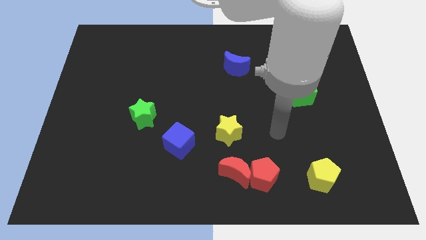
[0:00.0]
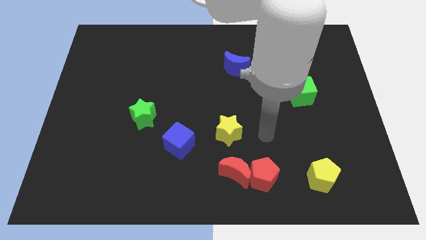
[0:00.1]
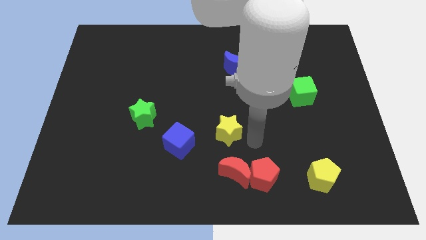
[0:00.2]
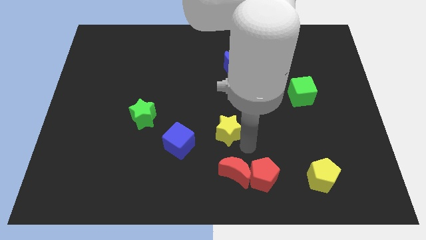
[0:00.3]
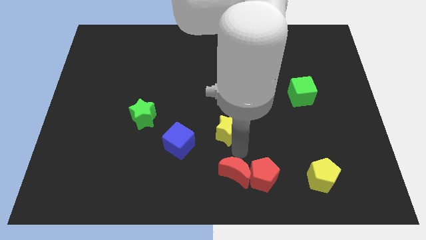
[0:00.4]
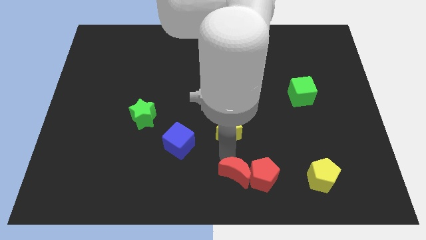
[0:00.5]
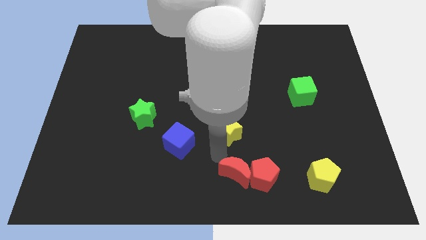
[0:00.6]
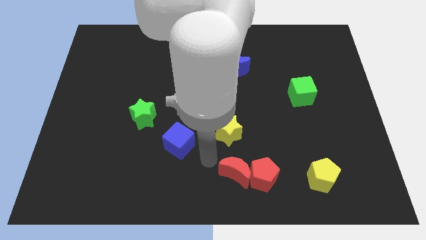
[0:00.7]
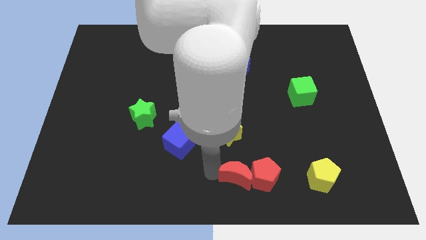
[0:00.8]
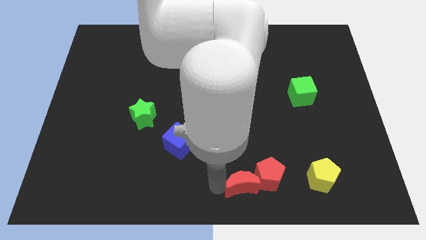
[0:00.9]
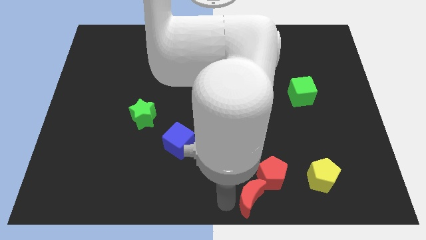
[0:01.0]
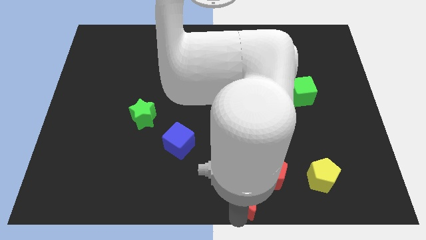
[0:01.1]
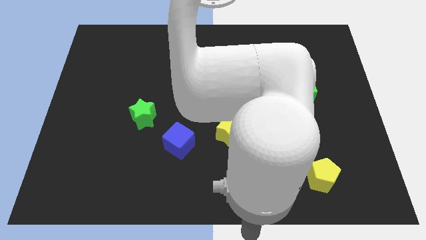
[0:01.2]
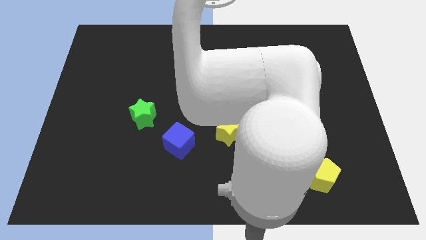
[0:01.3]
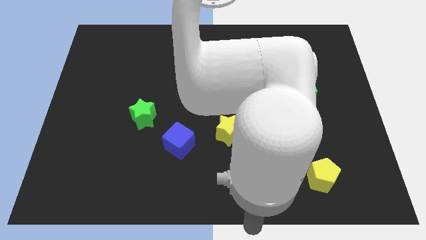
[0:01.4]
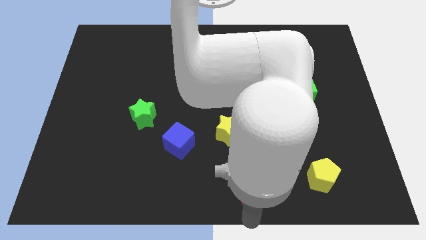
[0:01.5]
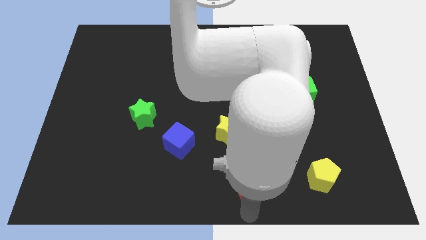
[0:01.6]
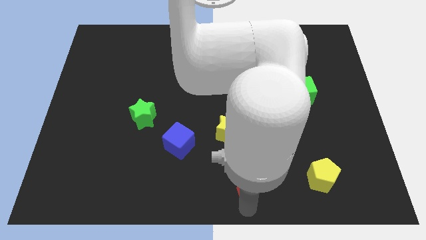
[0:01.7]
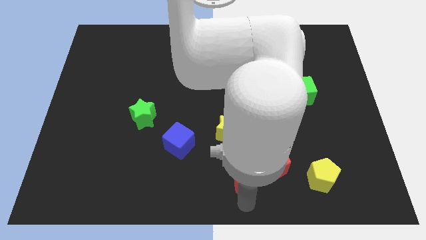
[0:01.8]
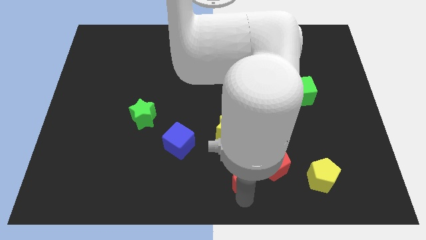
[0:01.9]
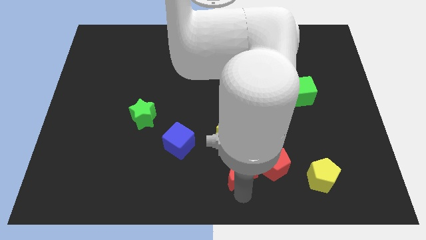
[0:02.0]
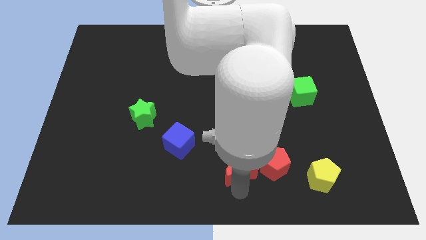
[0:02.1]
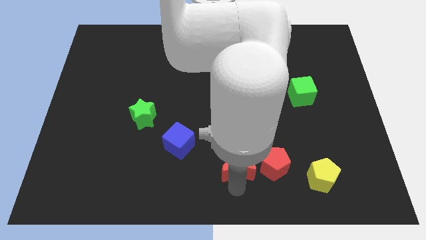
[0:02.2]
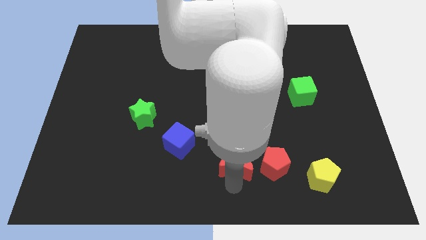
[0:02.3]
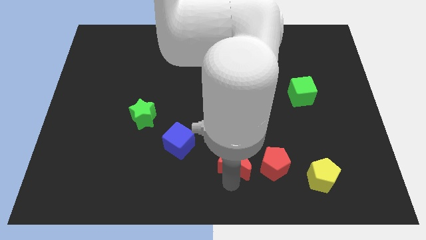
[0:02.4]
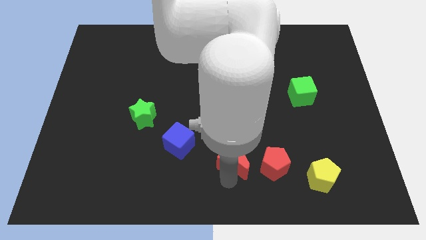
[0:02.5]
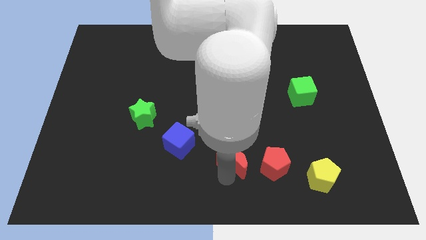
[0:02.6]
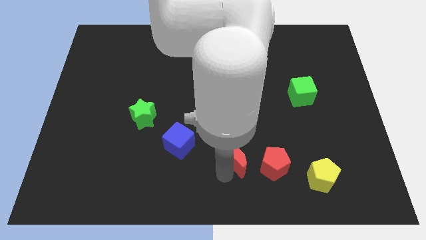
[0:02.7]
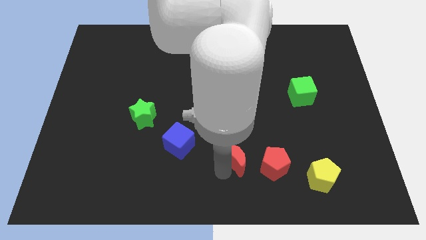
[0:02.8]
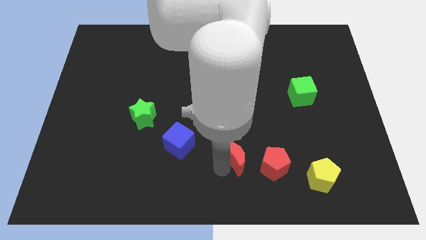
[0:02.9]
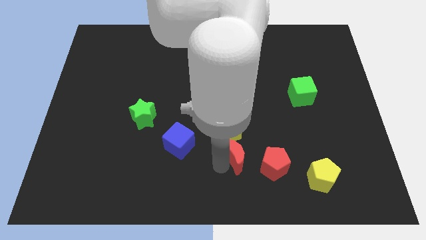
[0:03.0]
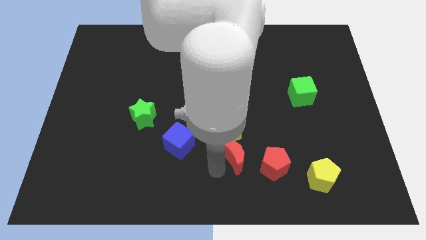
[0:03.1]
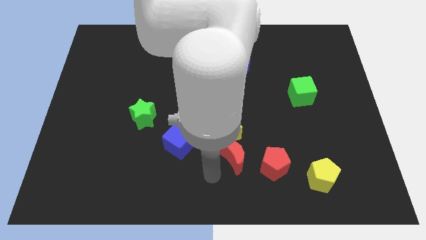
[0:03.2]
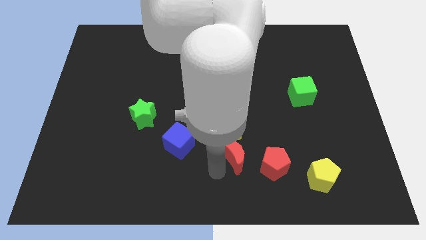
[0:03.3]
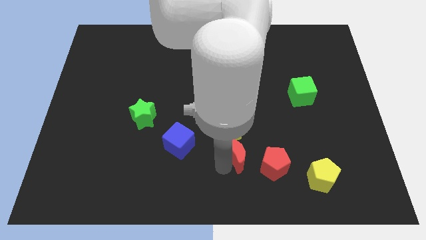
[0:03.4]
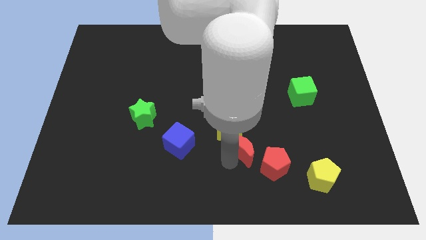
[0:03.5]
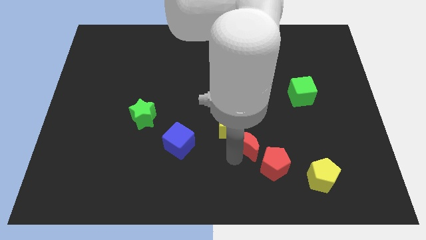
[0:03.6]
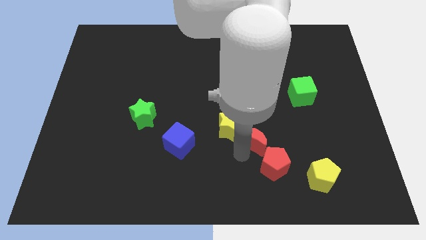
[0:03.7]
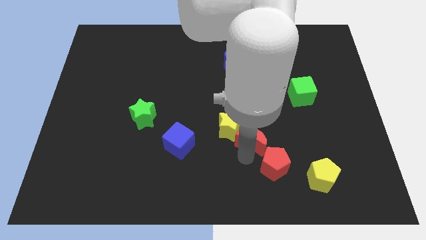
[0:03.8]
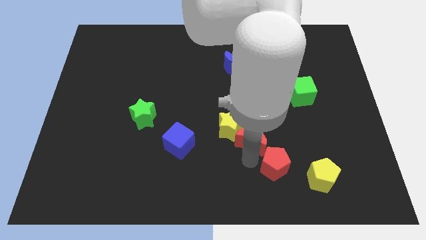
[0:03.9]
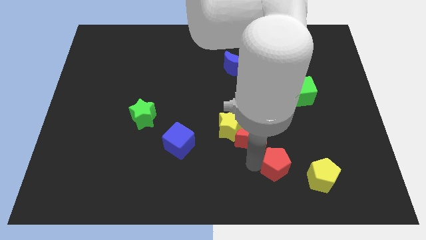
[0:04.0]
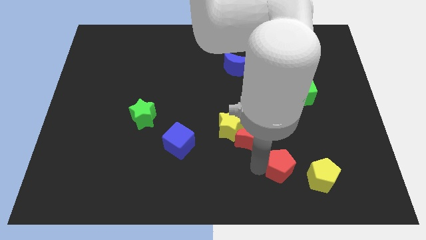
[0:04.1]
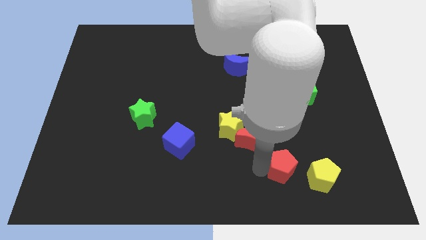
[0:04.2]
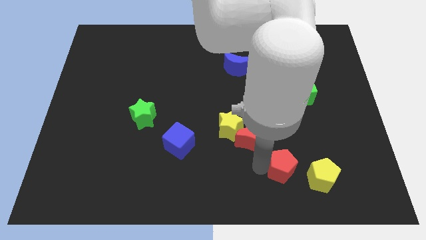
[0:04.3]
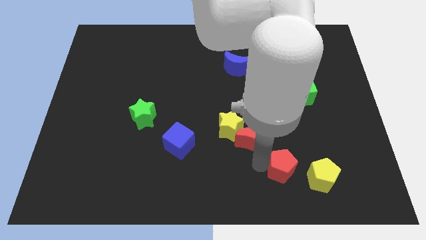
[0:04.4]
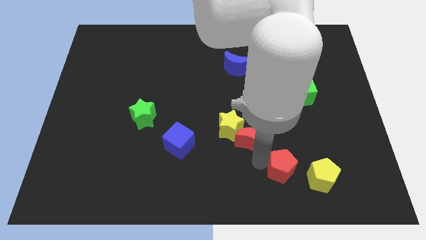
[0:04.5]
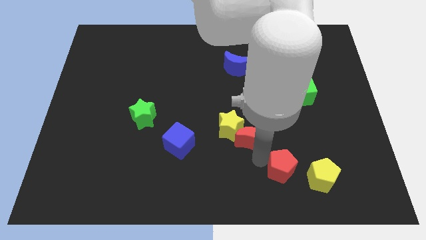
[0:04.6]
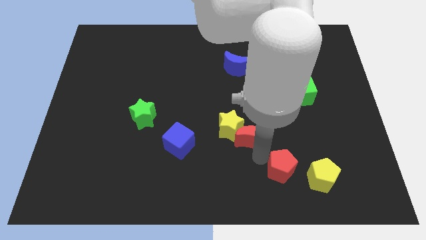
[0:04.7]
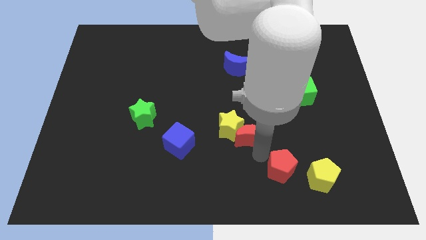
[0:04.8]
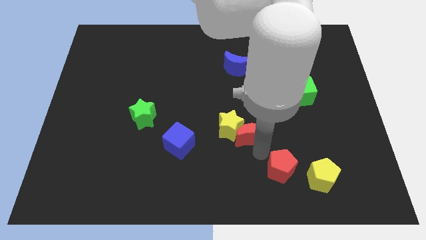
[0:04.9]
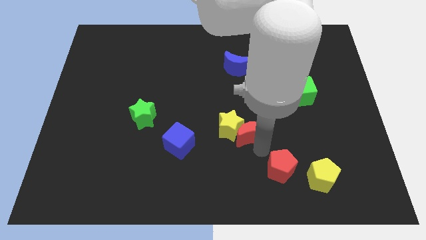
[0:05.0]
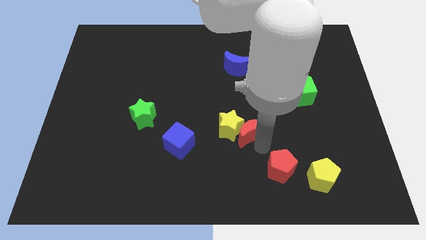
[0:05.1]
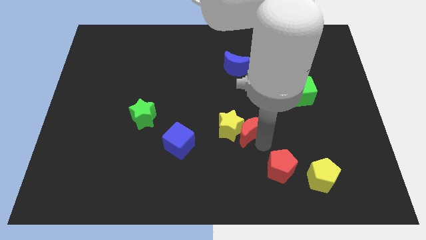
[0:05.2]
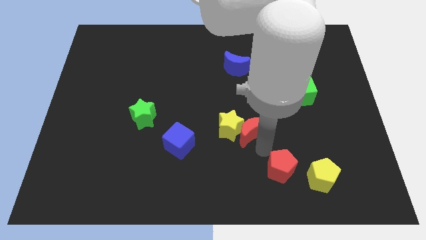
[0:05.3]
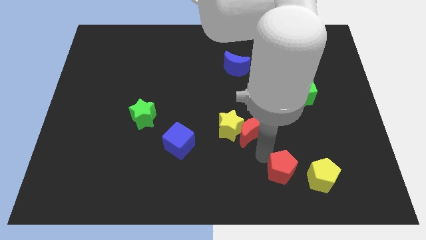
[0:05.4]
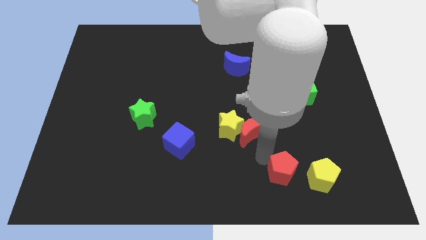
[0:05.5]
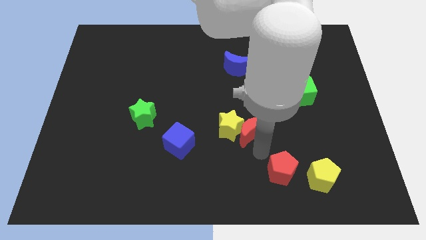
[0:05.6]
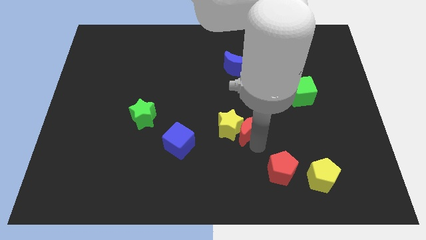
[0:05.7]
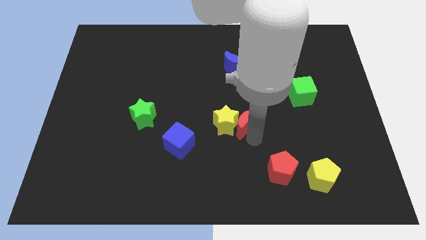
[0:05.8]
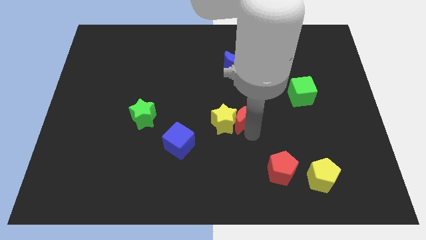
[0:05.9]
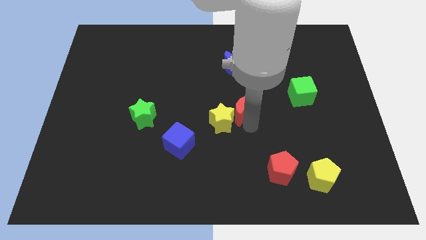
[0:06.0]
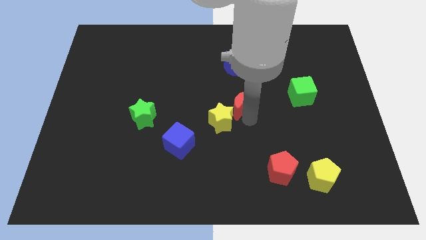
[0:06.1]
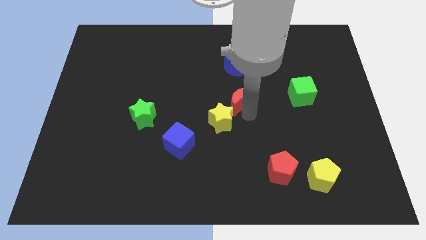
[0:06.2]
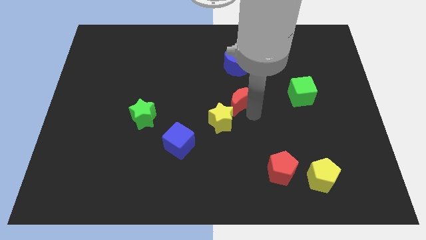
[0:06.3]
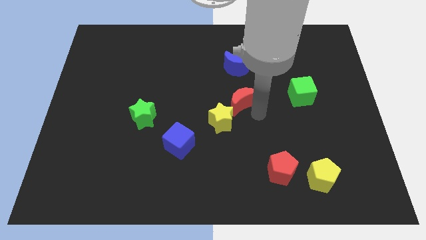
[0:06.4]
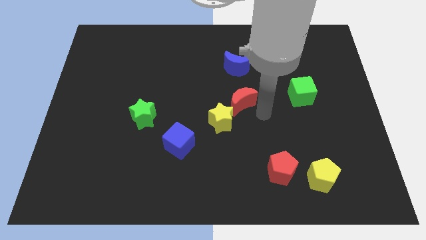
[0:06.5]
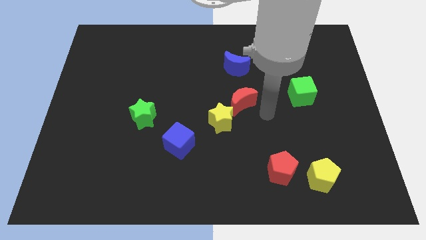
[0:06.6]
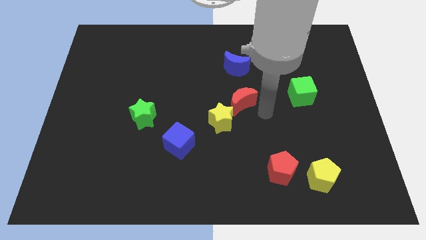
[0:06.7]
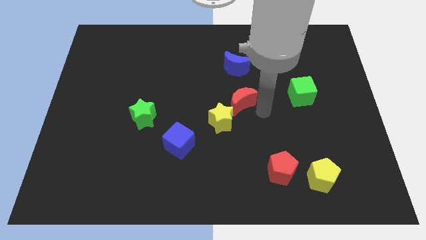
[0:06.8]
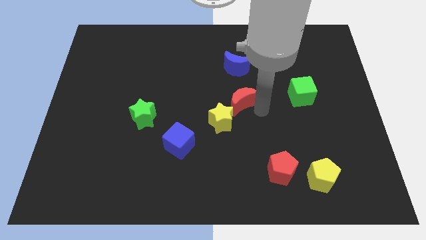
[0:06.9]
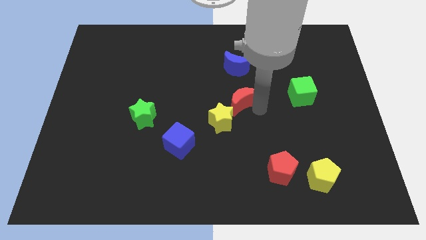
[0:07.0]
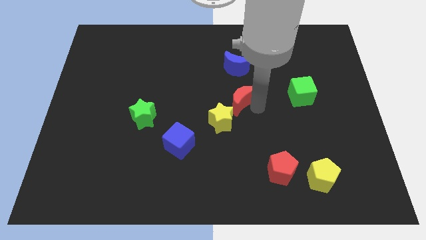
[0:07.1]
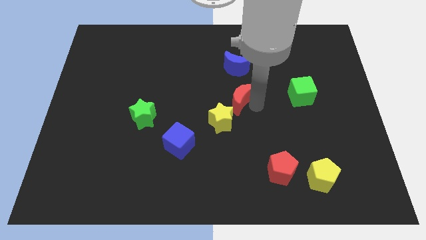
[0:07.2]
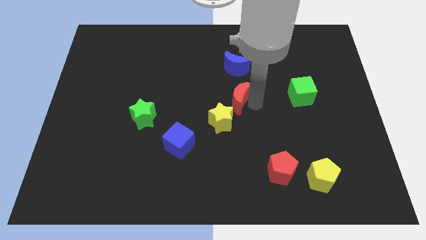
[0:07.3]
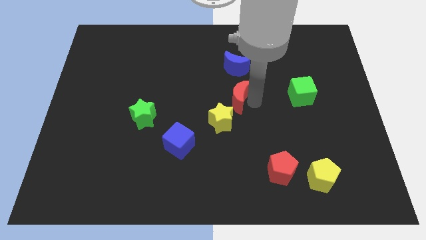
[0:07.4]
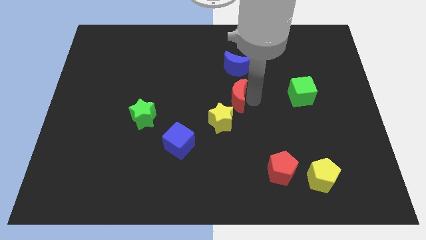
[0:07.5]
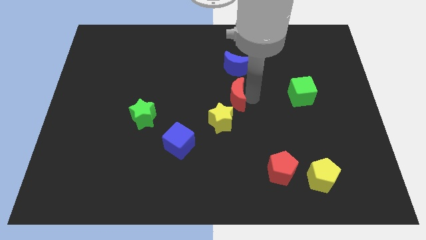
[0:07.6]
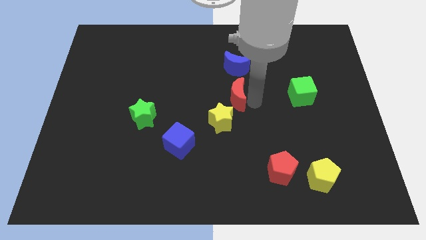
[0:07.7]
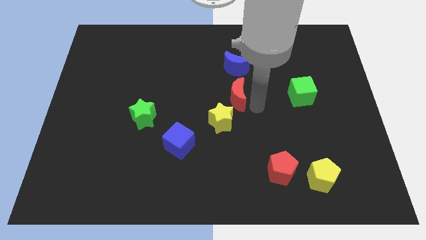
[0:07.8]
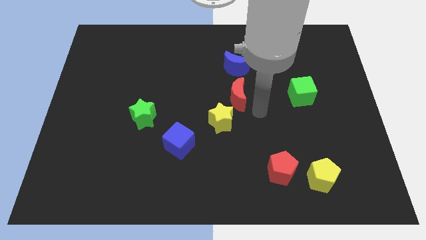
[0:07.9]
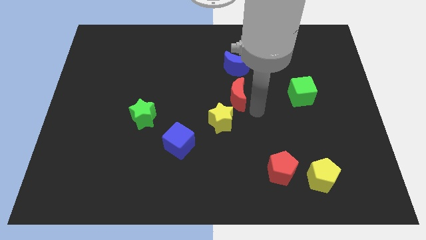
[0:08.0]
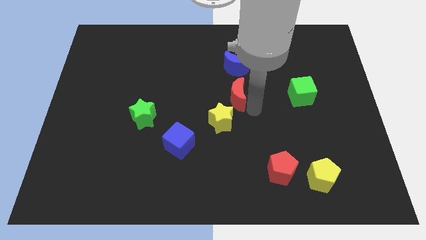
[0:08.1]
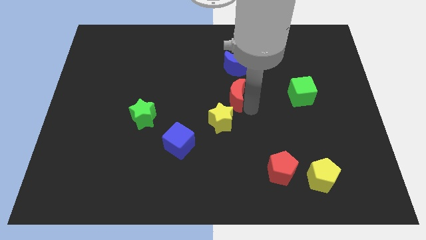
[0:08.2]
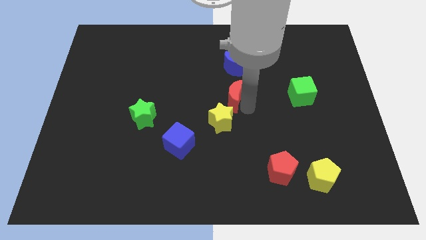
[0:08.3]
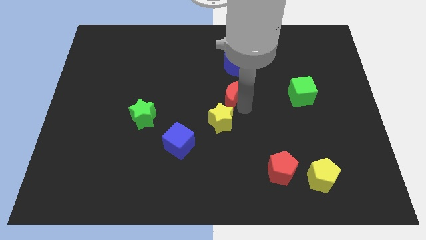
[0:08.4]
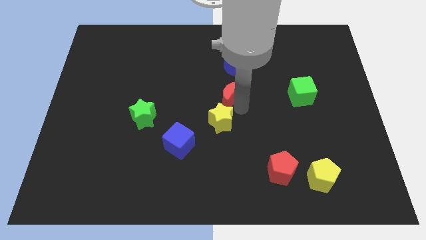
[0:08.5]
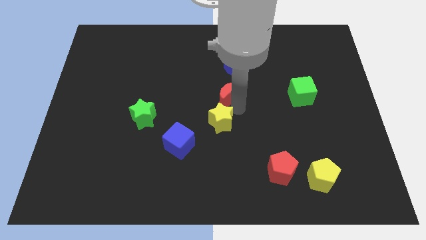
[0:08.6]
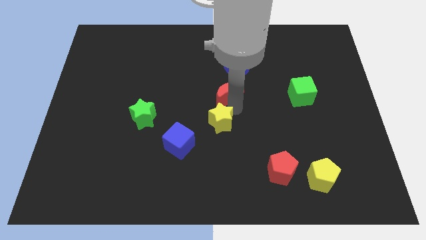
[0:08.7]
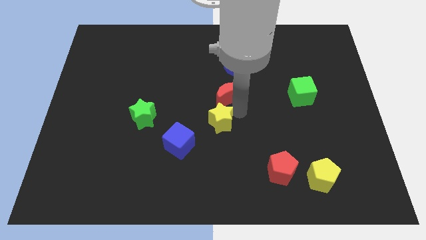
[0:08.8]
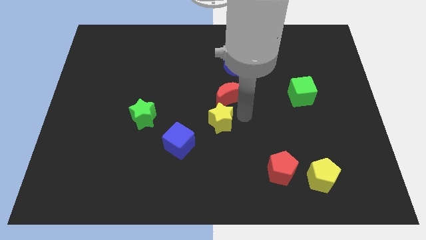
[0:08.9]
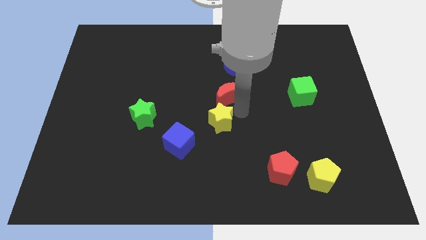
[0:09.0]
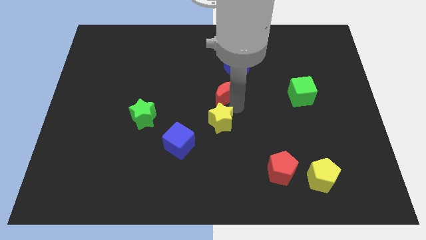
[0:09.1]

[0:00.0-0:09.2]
slide the red moon diagonally down and to the left of the blue moon
